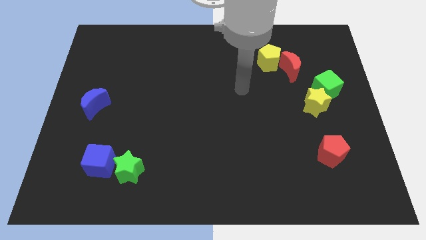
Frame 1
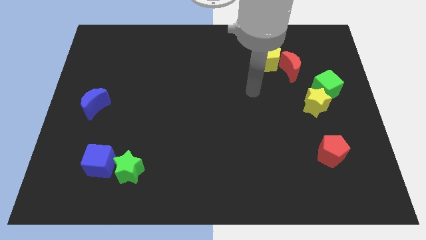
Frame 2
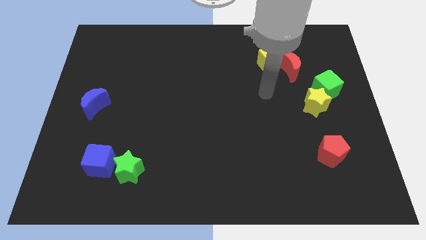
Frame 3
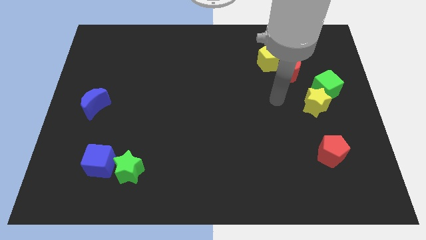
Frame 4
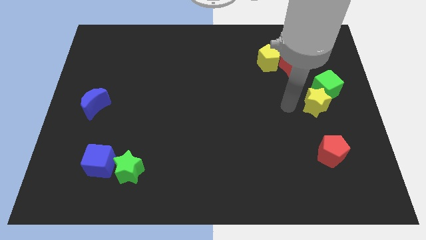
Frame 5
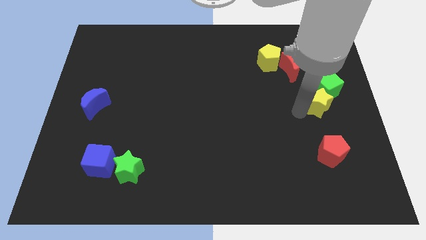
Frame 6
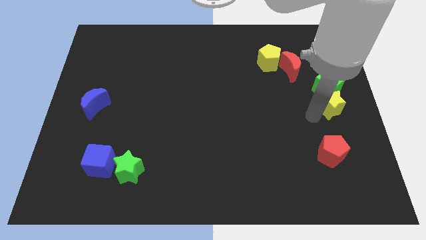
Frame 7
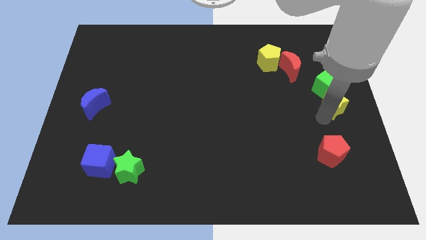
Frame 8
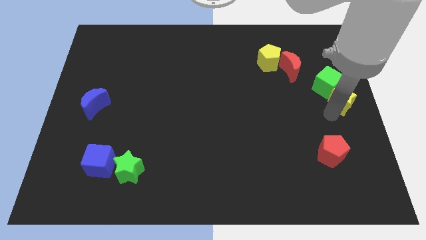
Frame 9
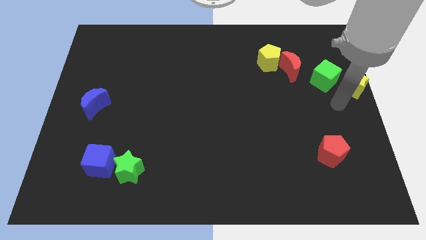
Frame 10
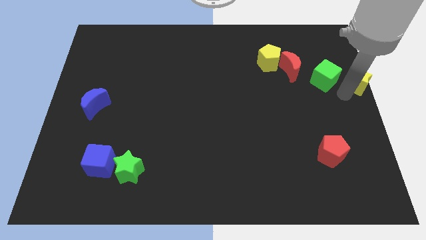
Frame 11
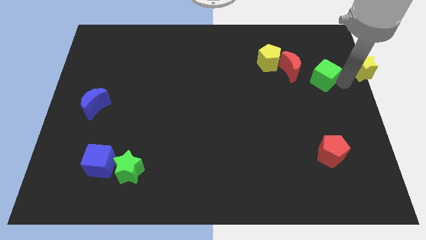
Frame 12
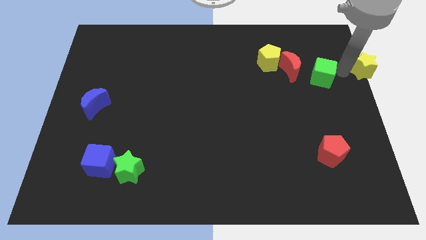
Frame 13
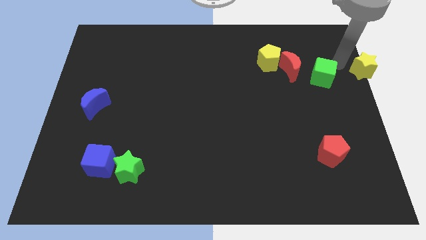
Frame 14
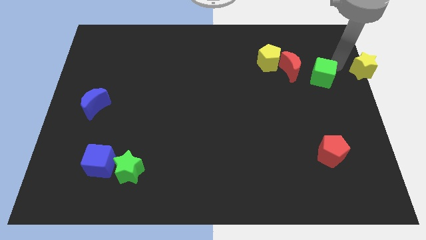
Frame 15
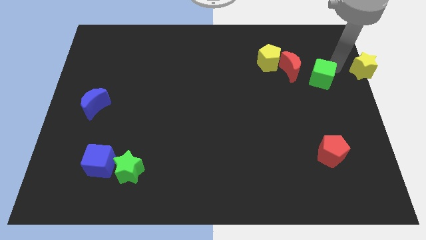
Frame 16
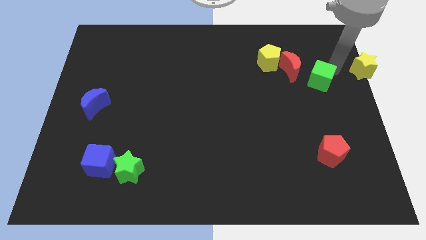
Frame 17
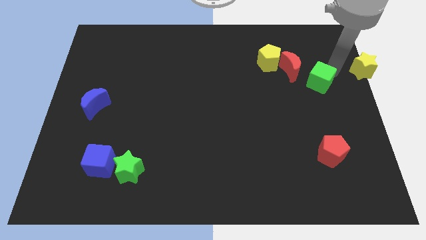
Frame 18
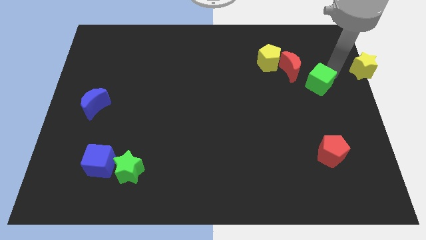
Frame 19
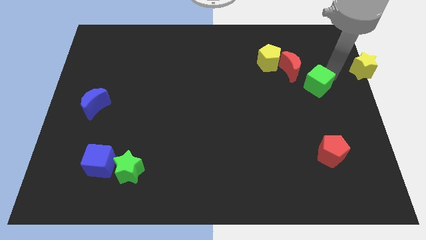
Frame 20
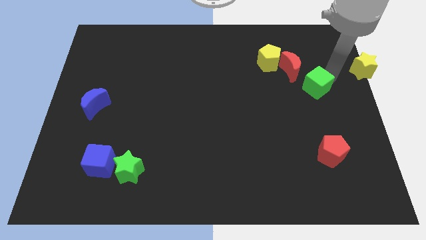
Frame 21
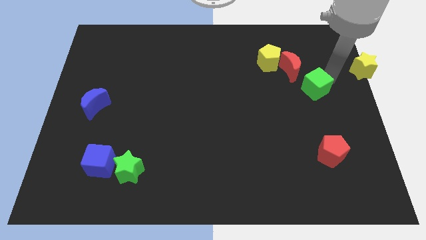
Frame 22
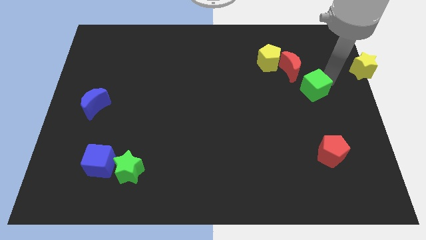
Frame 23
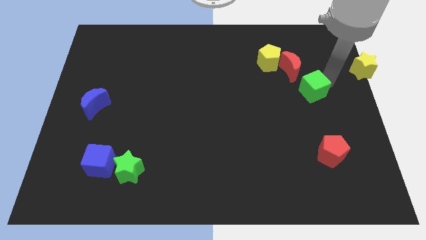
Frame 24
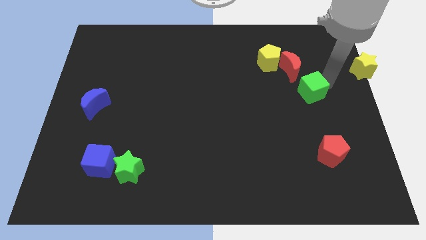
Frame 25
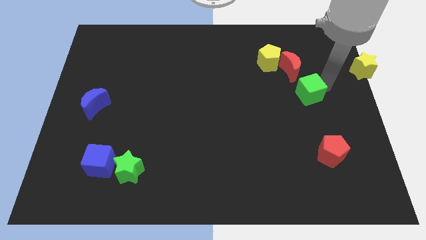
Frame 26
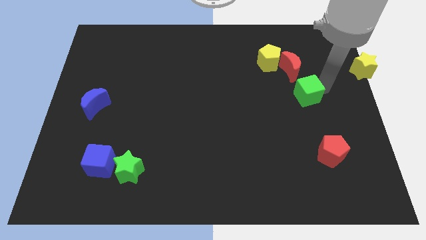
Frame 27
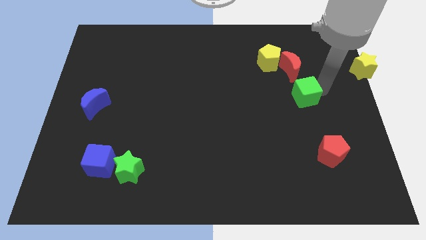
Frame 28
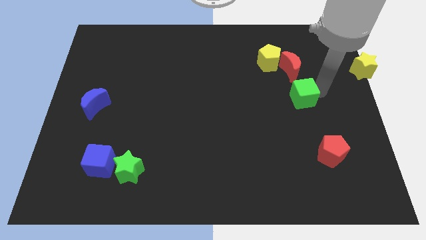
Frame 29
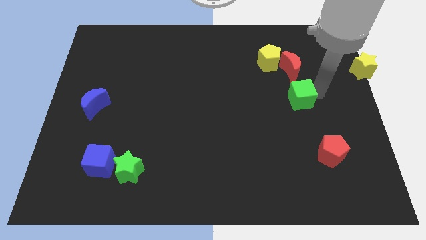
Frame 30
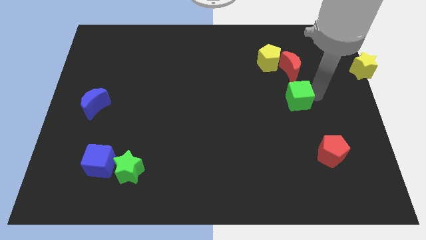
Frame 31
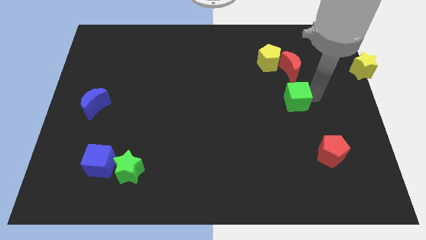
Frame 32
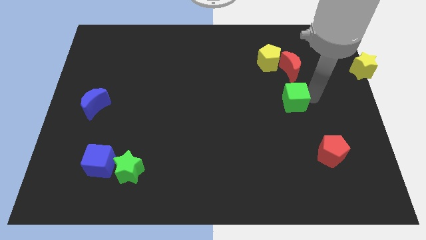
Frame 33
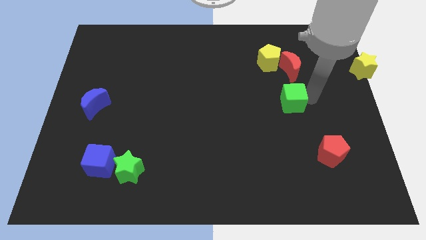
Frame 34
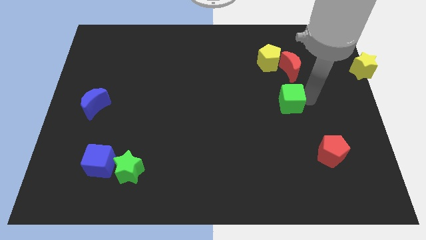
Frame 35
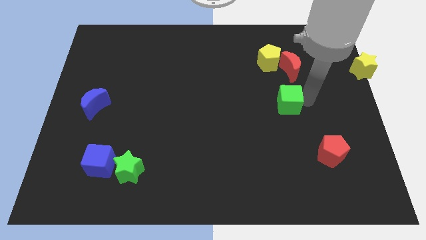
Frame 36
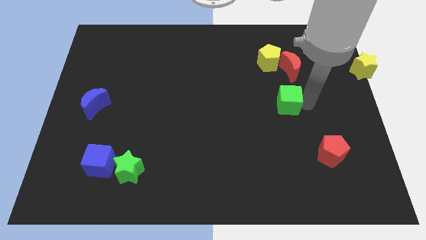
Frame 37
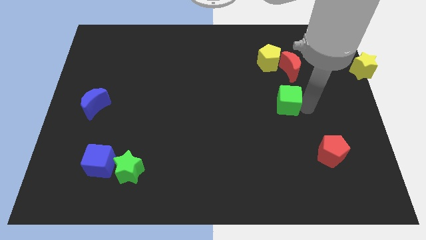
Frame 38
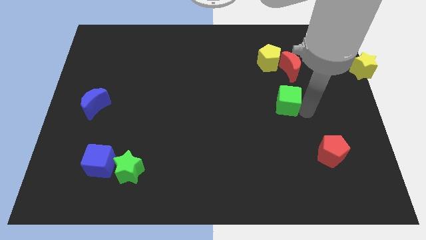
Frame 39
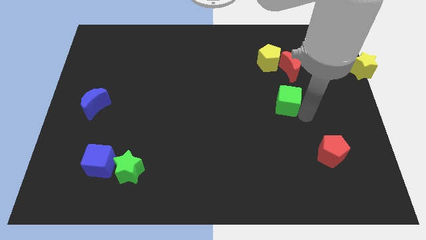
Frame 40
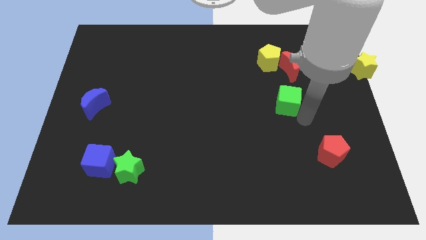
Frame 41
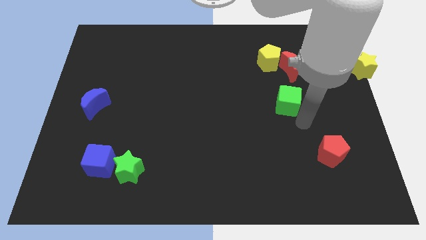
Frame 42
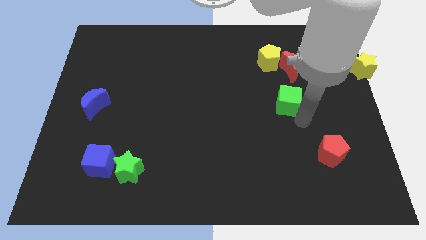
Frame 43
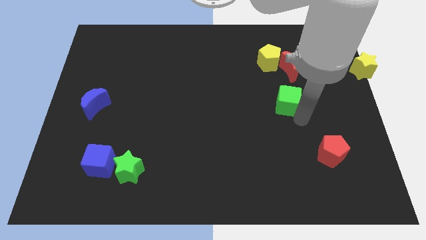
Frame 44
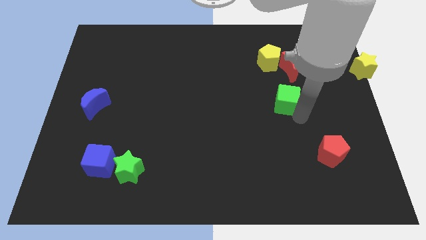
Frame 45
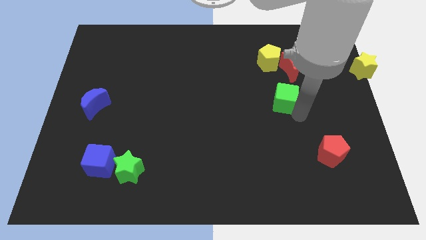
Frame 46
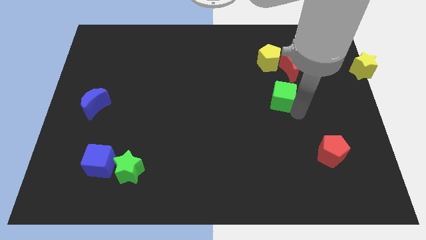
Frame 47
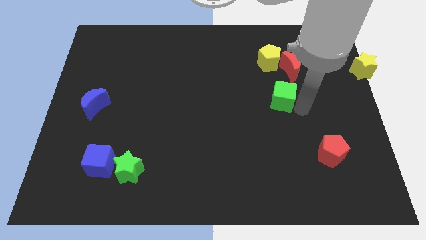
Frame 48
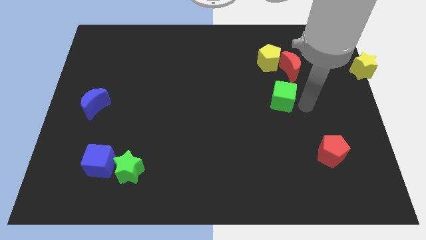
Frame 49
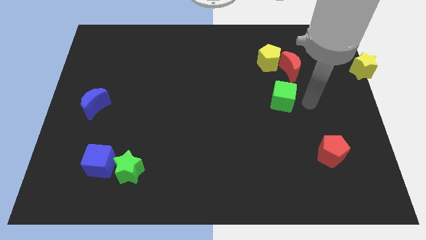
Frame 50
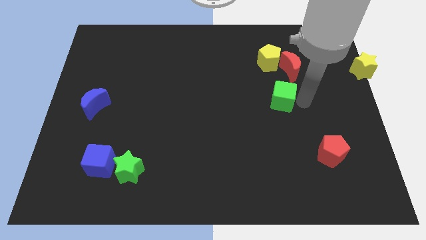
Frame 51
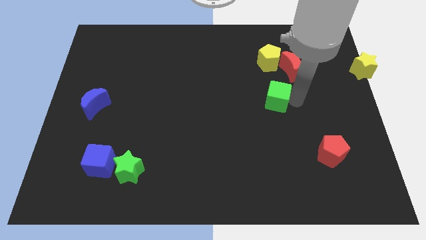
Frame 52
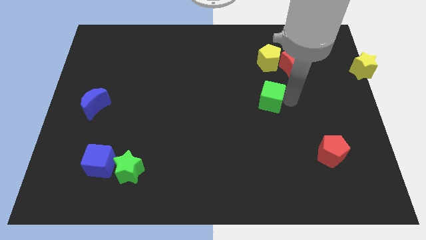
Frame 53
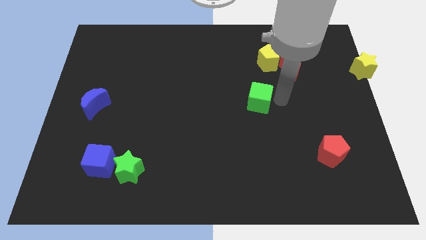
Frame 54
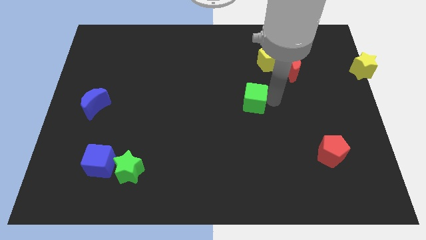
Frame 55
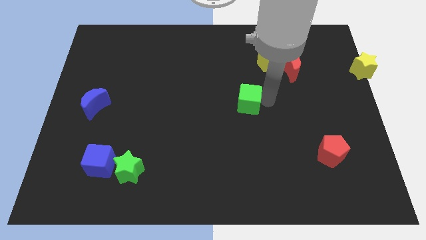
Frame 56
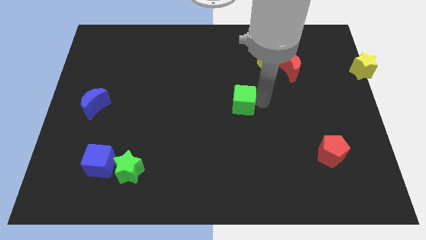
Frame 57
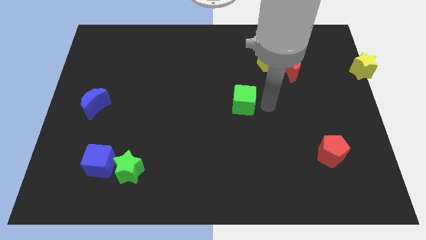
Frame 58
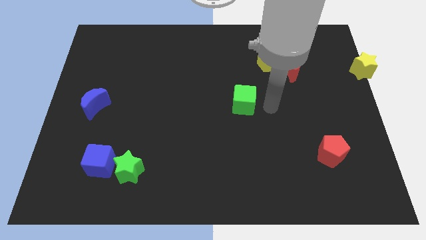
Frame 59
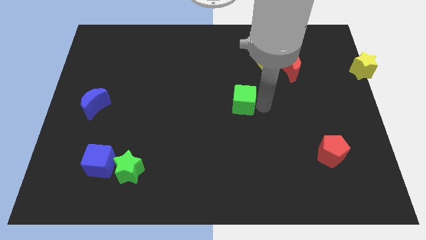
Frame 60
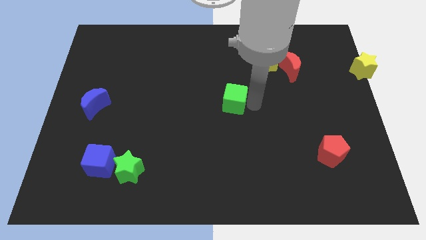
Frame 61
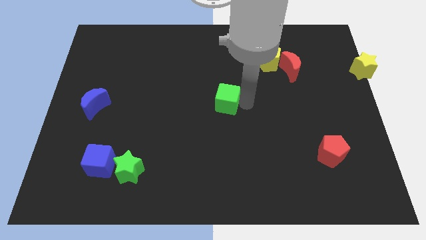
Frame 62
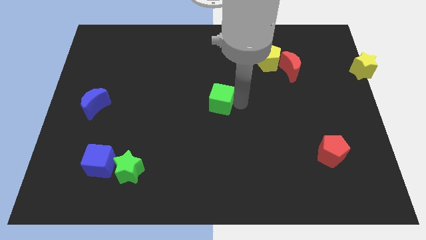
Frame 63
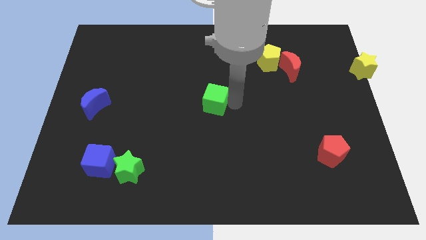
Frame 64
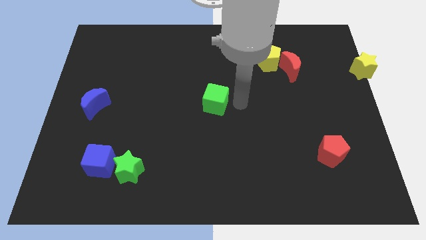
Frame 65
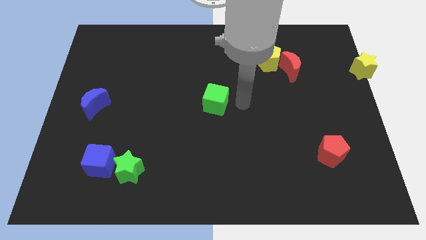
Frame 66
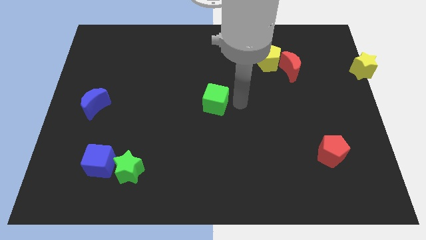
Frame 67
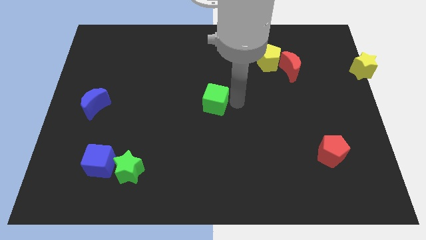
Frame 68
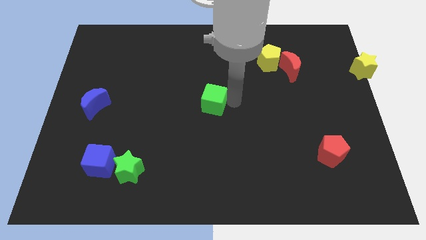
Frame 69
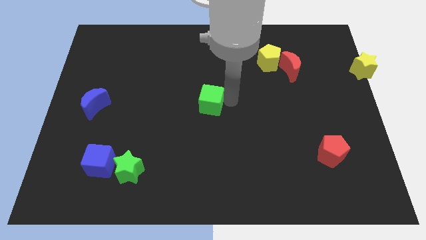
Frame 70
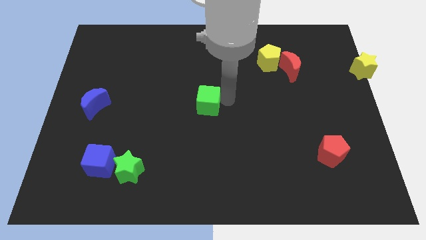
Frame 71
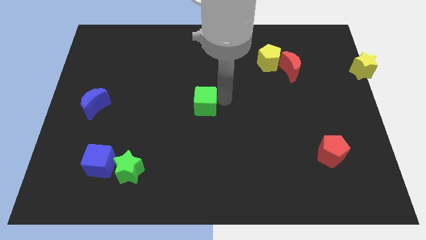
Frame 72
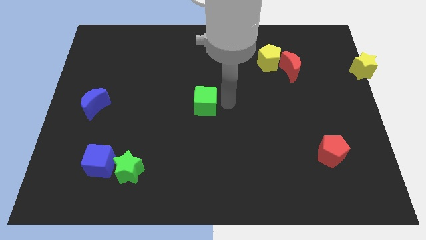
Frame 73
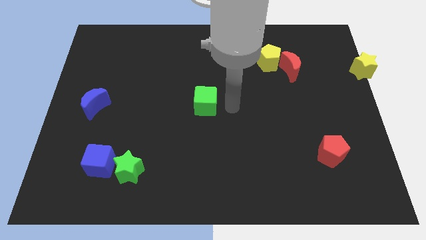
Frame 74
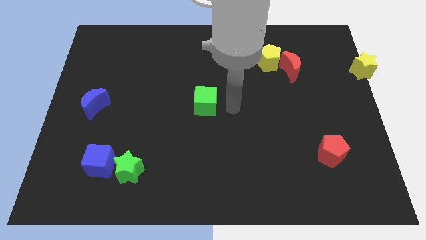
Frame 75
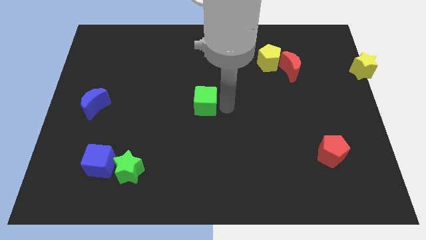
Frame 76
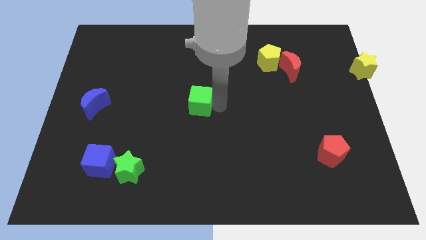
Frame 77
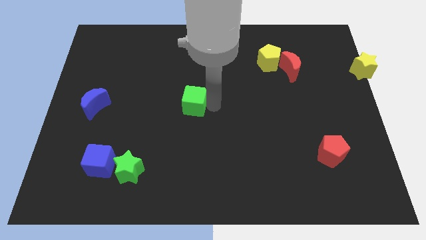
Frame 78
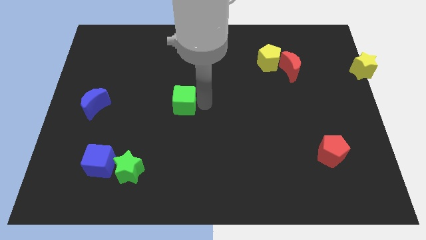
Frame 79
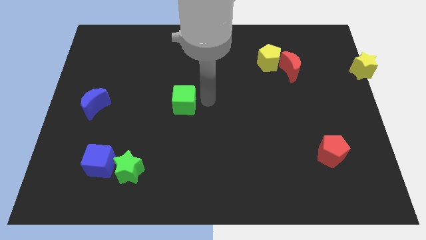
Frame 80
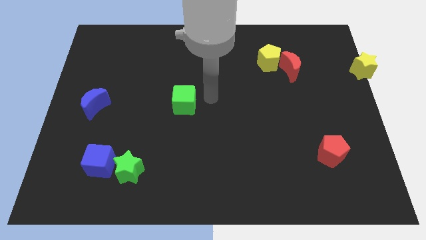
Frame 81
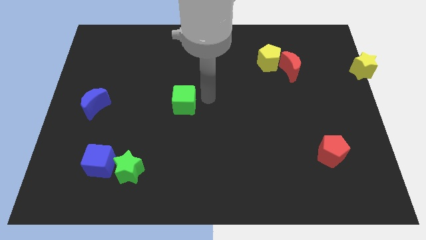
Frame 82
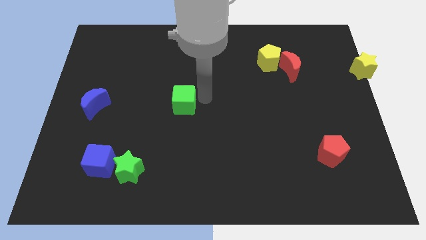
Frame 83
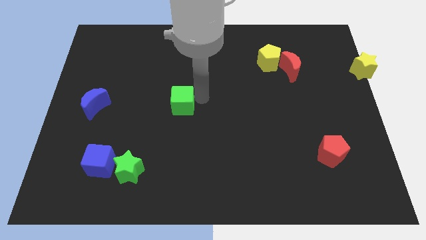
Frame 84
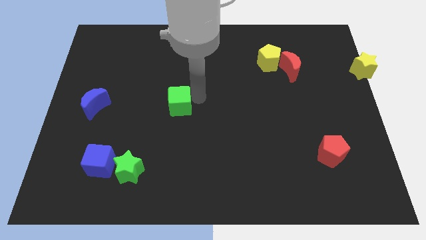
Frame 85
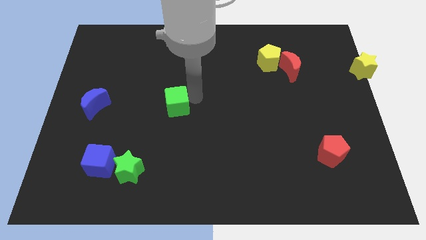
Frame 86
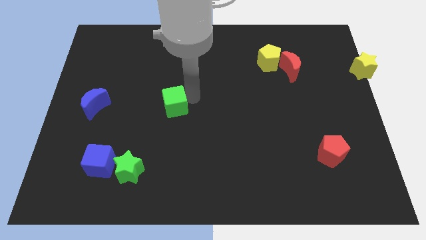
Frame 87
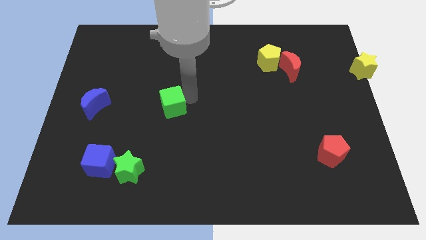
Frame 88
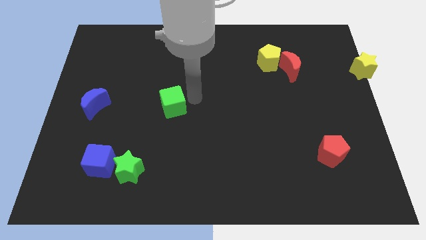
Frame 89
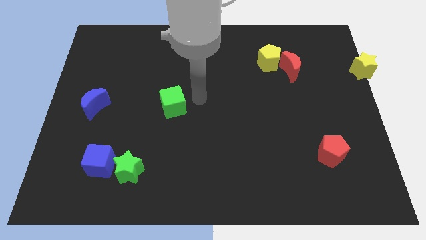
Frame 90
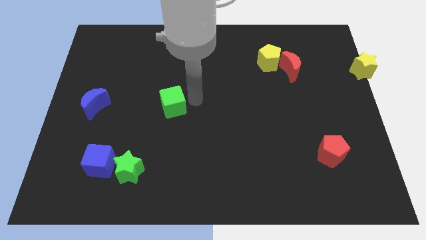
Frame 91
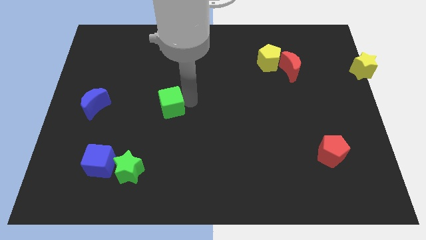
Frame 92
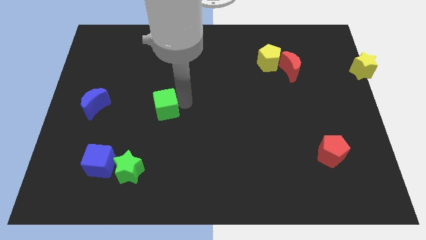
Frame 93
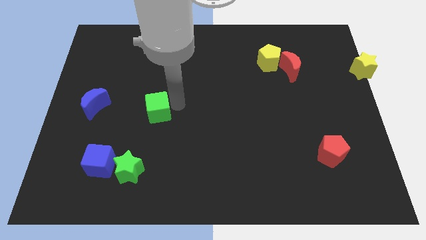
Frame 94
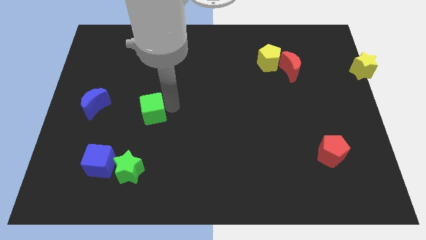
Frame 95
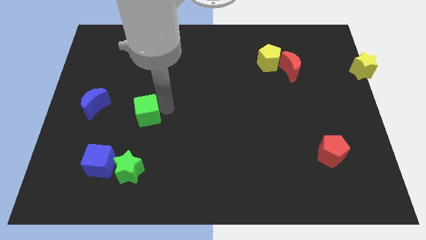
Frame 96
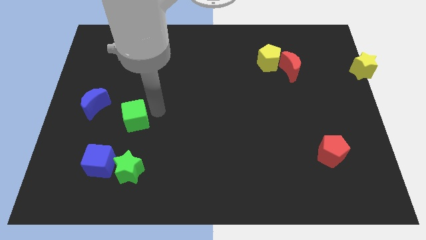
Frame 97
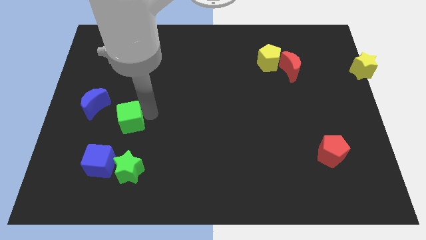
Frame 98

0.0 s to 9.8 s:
put the green cube to the top side of the blue cube
